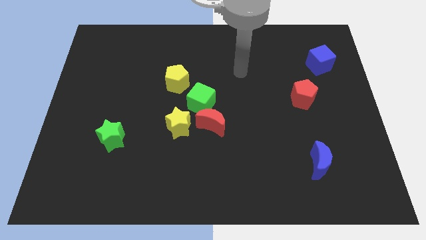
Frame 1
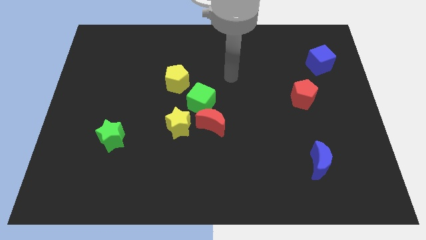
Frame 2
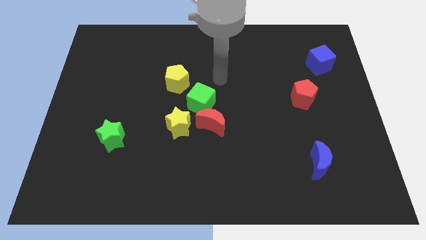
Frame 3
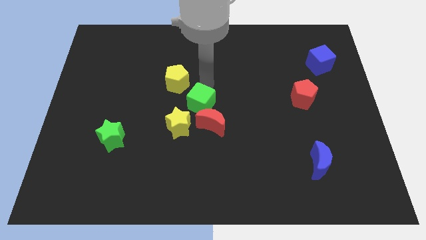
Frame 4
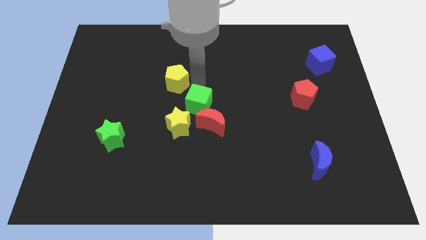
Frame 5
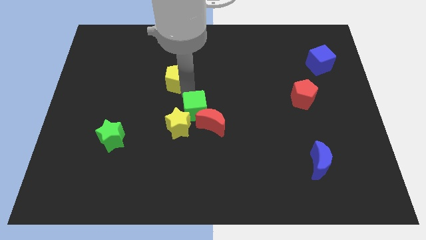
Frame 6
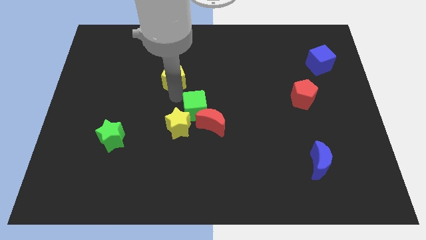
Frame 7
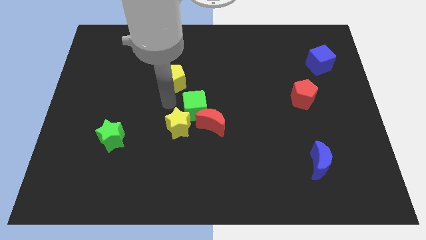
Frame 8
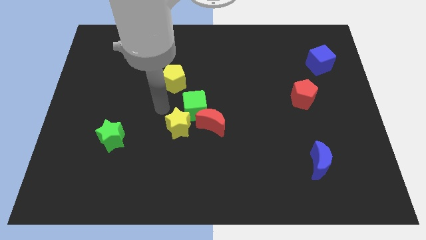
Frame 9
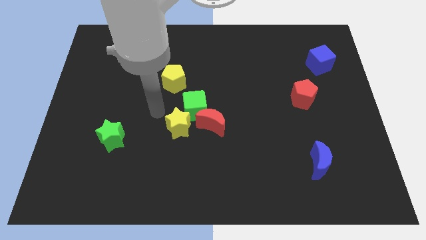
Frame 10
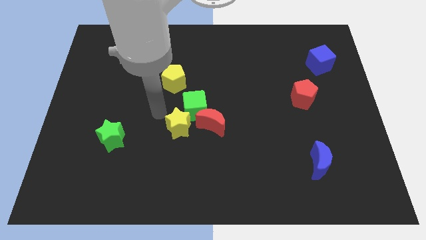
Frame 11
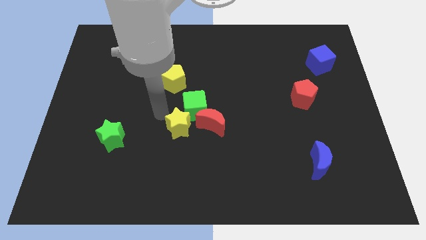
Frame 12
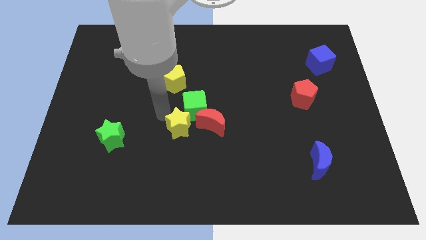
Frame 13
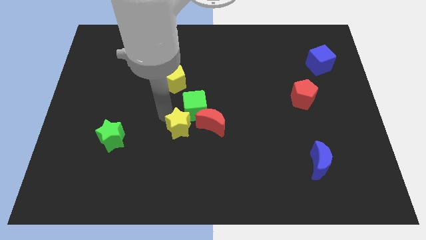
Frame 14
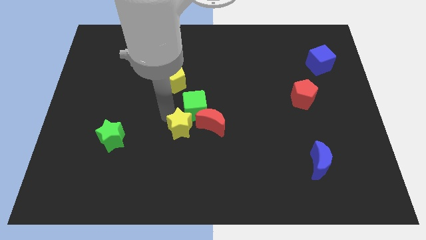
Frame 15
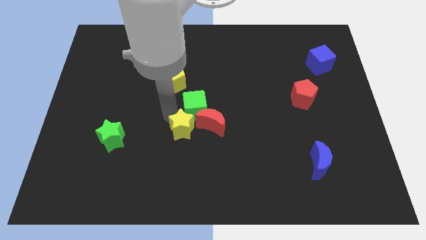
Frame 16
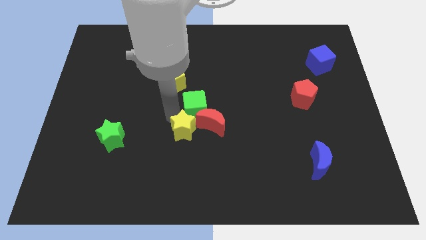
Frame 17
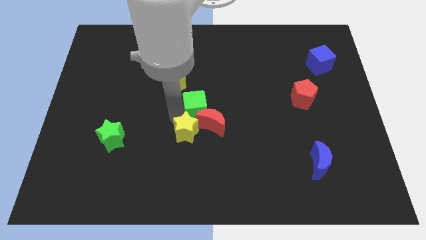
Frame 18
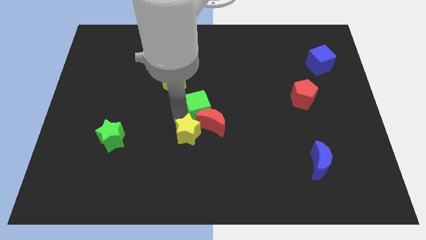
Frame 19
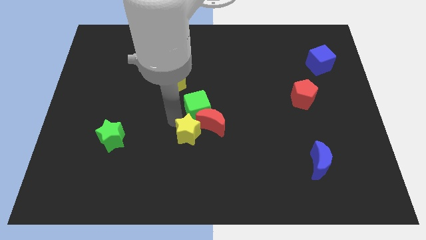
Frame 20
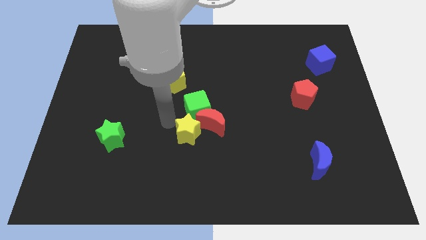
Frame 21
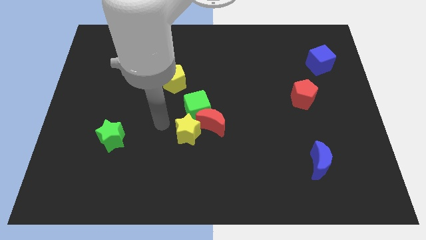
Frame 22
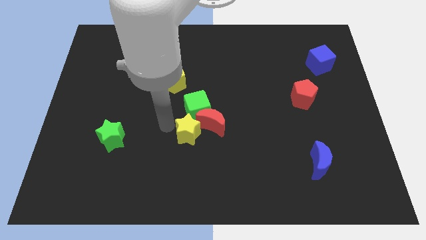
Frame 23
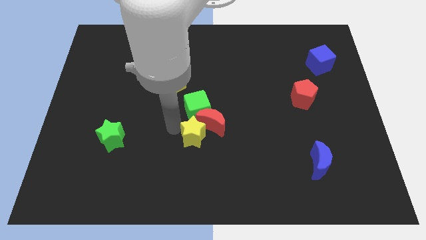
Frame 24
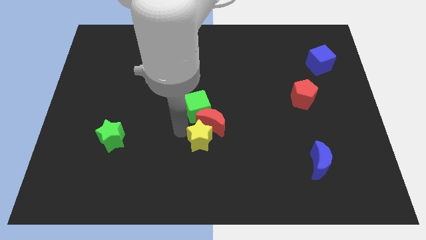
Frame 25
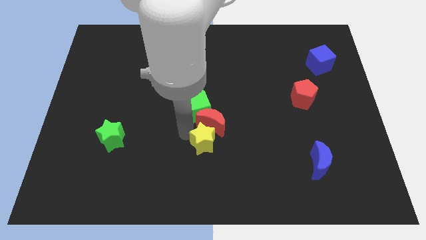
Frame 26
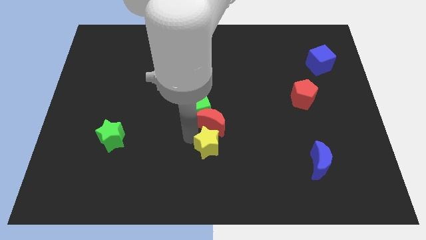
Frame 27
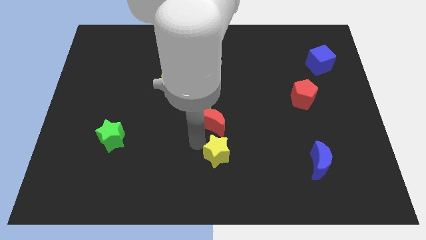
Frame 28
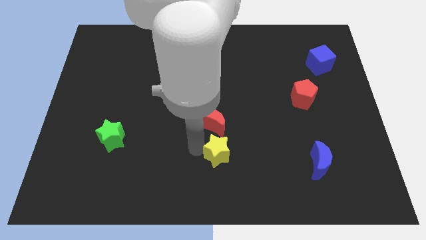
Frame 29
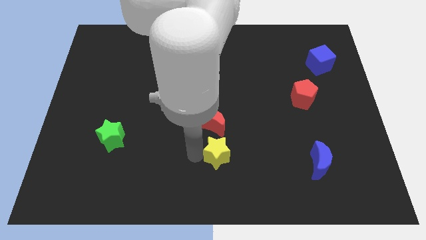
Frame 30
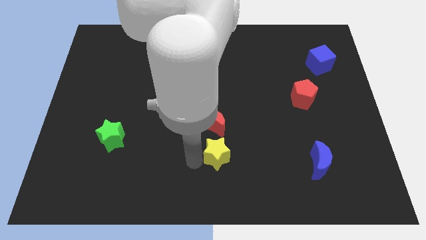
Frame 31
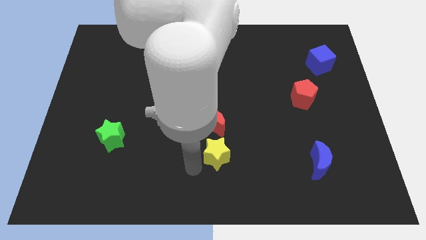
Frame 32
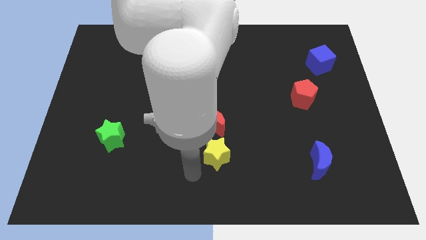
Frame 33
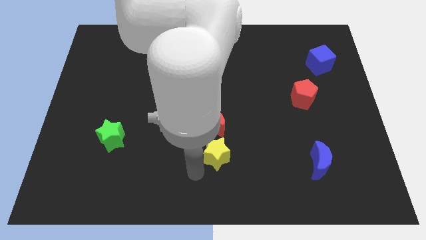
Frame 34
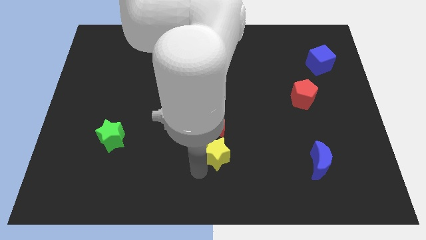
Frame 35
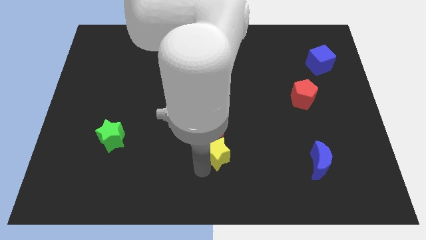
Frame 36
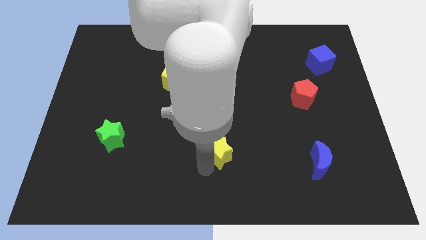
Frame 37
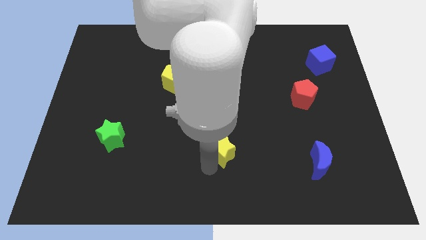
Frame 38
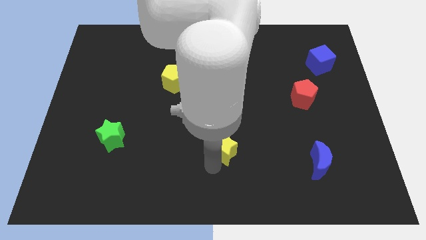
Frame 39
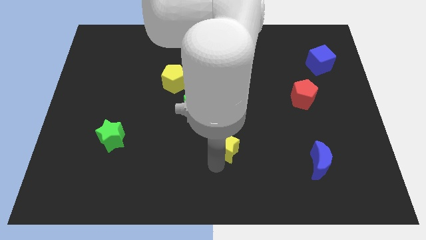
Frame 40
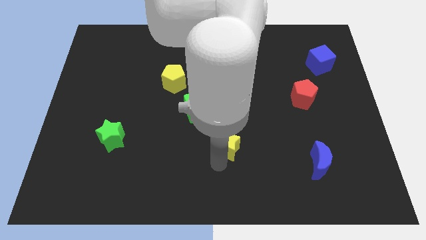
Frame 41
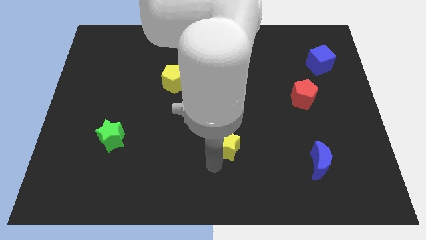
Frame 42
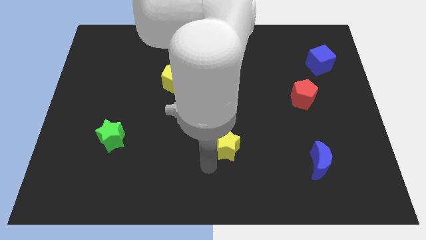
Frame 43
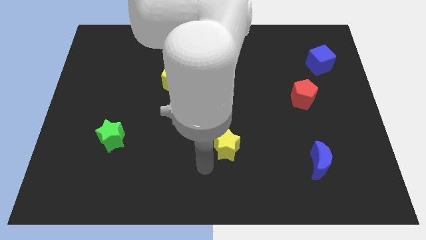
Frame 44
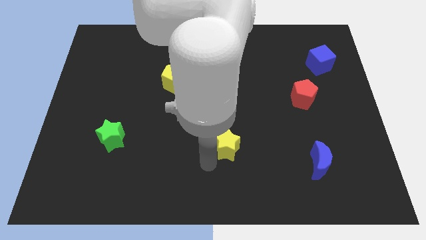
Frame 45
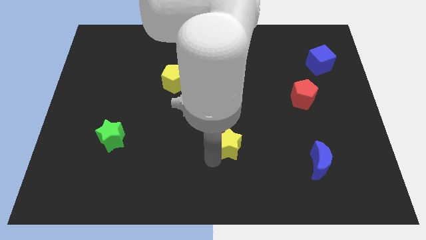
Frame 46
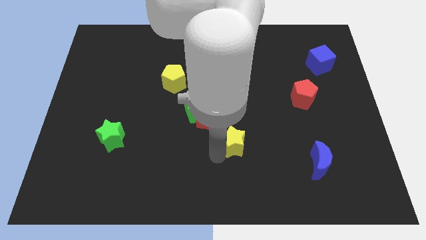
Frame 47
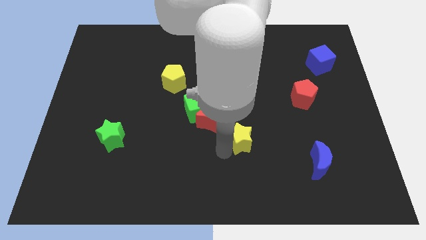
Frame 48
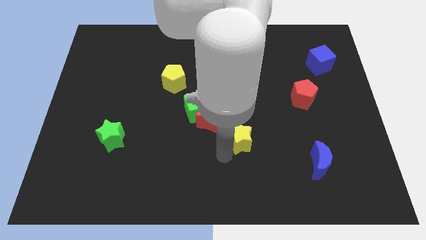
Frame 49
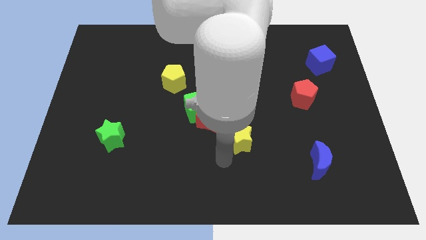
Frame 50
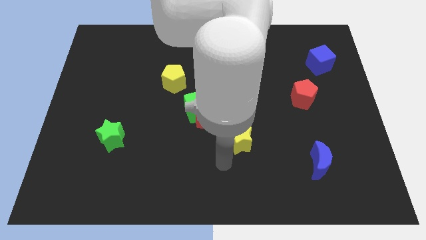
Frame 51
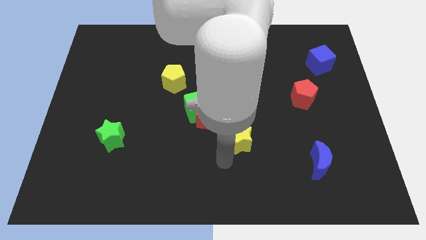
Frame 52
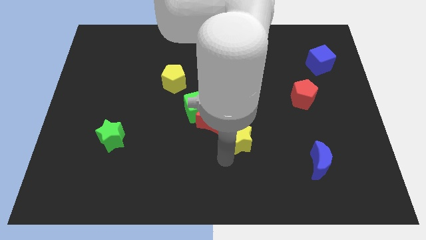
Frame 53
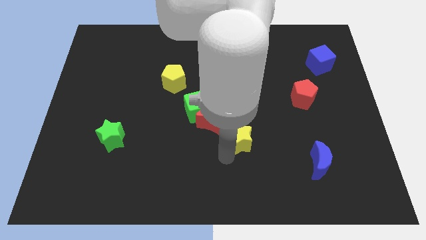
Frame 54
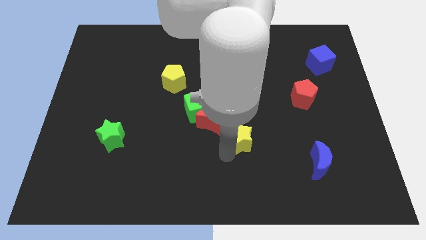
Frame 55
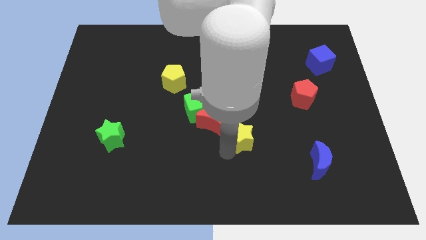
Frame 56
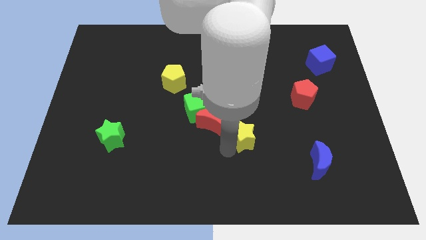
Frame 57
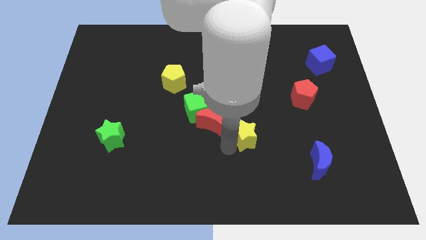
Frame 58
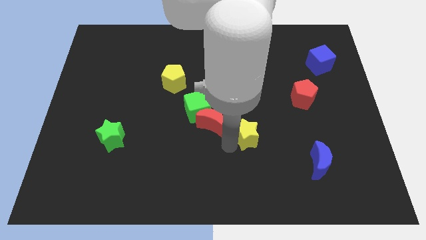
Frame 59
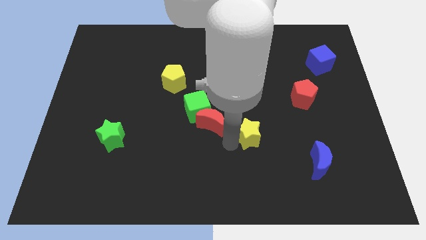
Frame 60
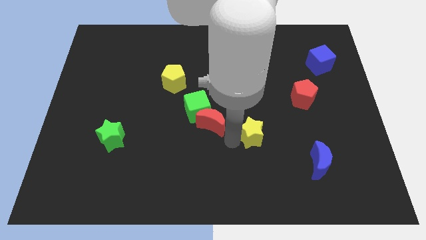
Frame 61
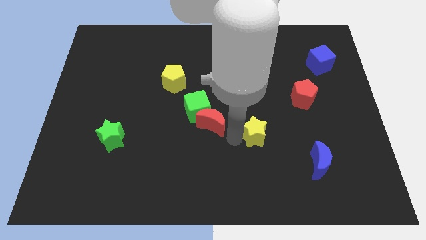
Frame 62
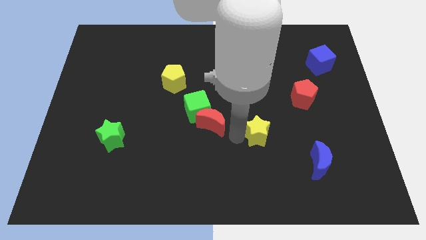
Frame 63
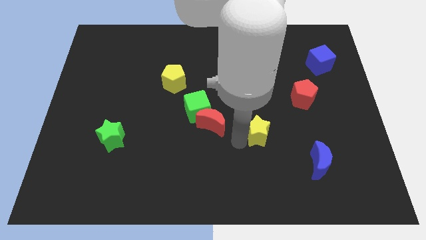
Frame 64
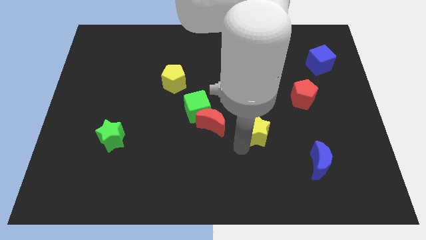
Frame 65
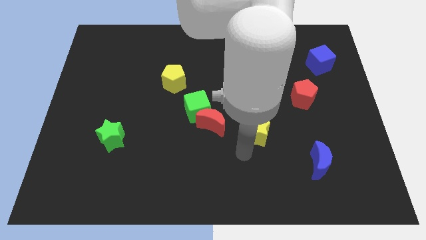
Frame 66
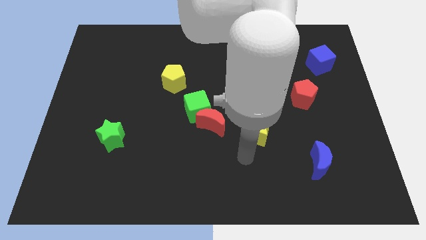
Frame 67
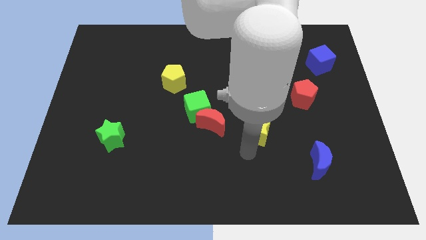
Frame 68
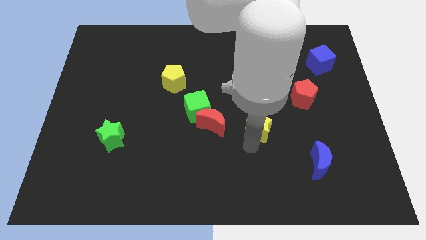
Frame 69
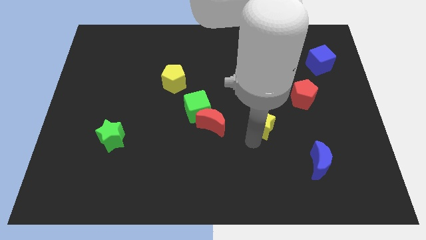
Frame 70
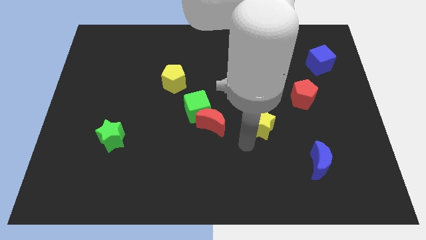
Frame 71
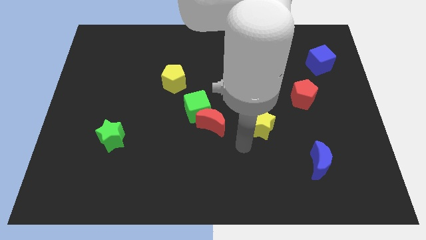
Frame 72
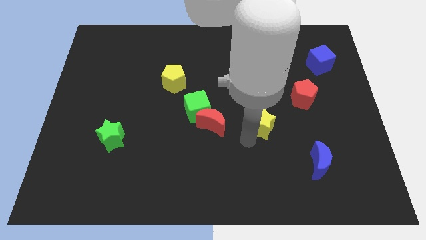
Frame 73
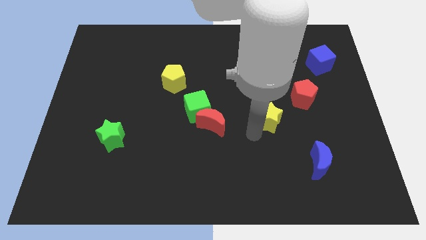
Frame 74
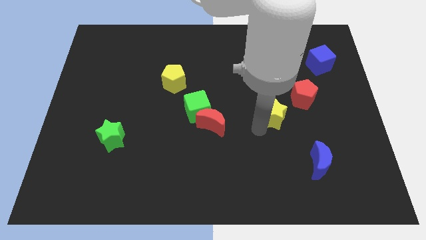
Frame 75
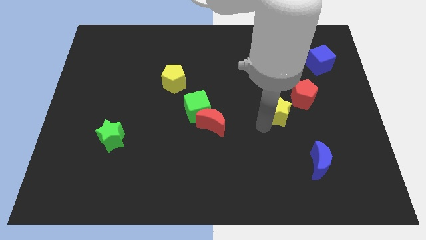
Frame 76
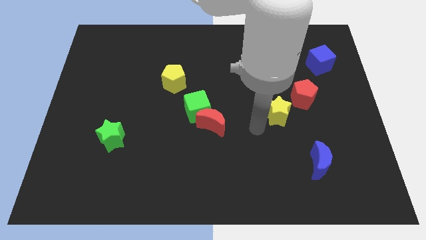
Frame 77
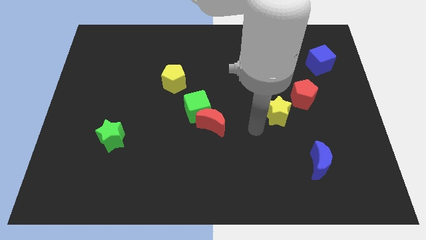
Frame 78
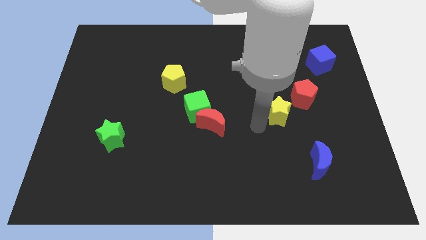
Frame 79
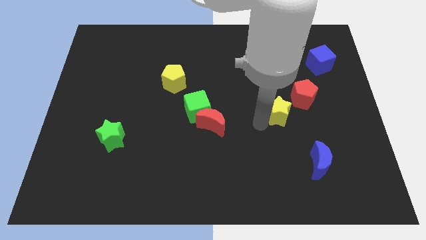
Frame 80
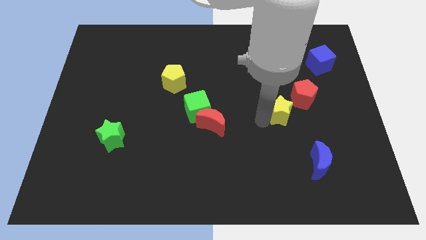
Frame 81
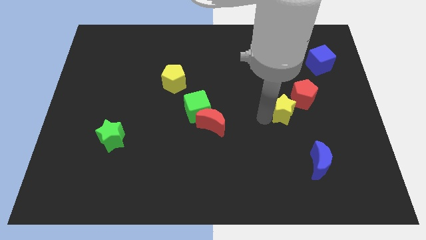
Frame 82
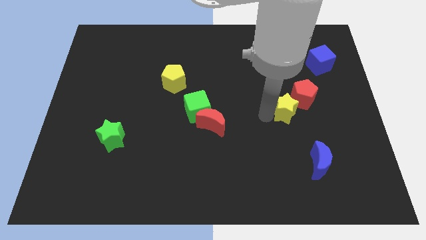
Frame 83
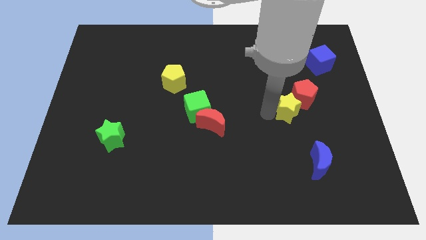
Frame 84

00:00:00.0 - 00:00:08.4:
move the yellow star next to the red pentagon
